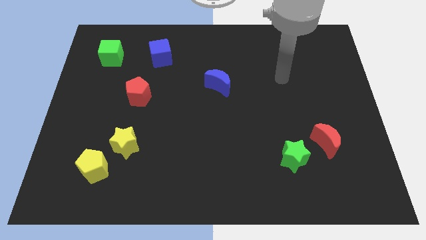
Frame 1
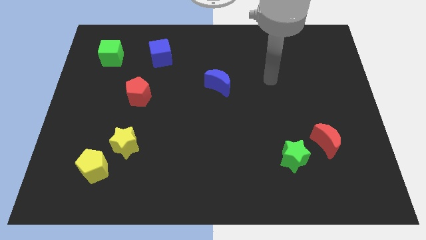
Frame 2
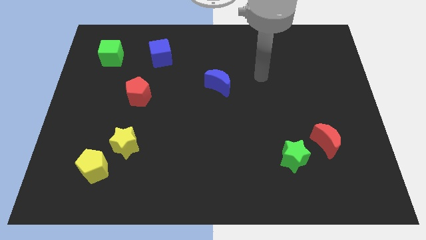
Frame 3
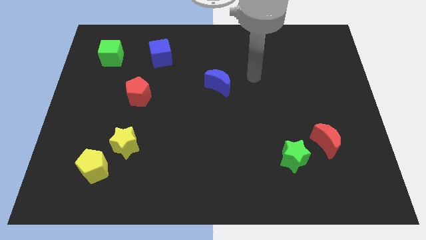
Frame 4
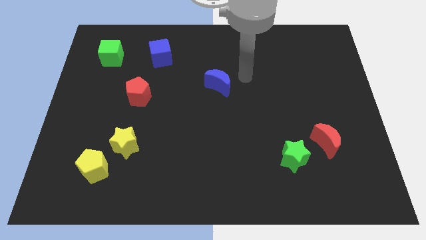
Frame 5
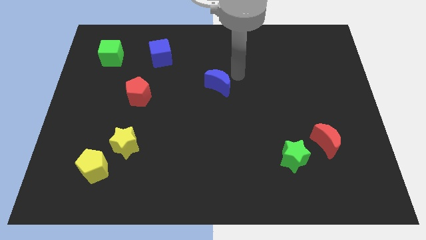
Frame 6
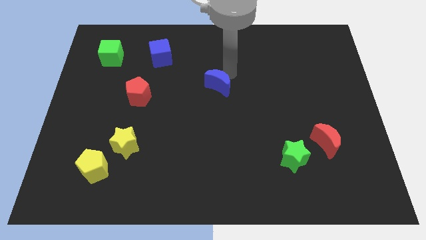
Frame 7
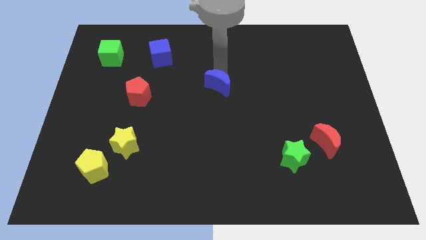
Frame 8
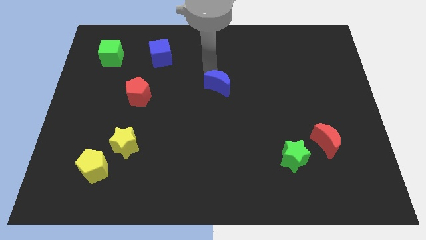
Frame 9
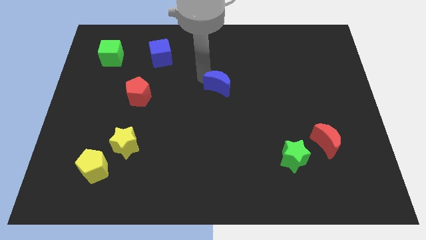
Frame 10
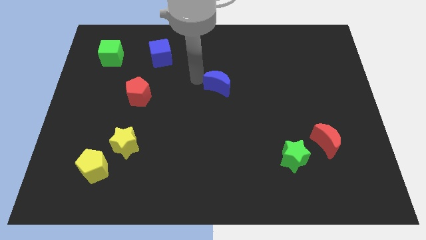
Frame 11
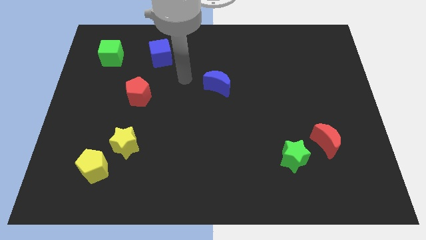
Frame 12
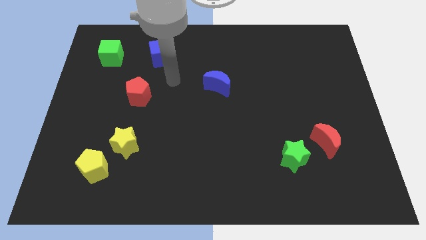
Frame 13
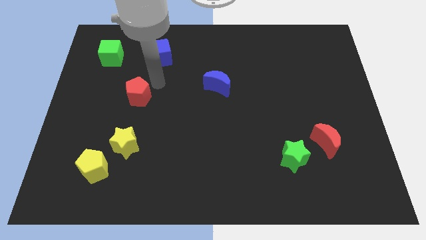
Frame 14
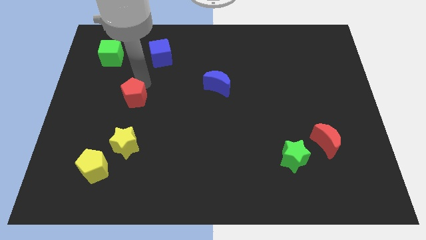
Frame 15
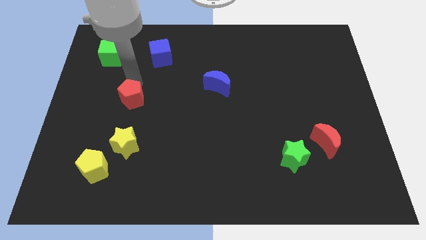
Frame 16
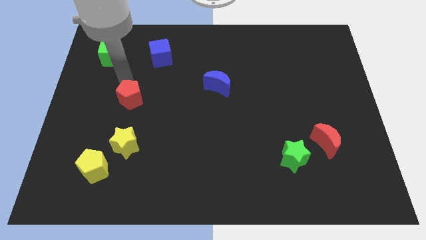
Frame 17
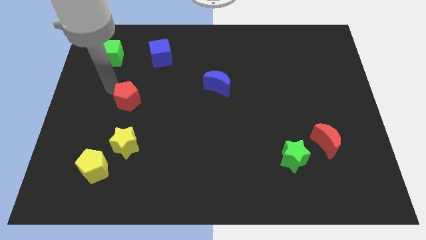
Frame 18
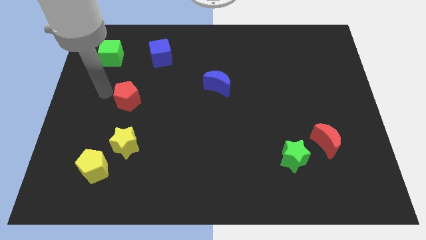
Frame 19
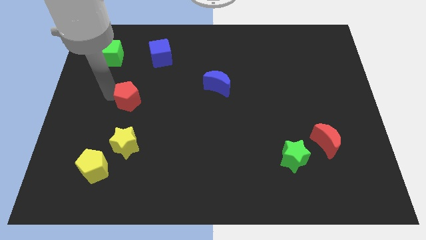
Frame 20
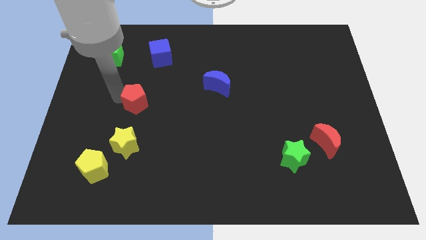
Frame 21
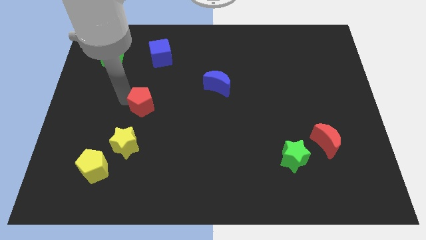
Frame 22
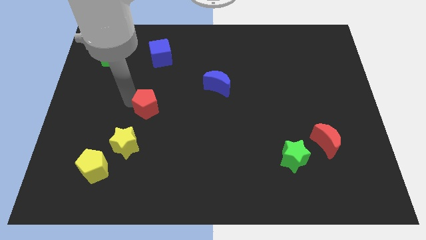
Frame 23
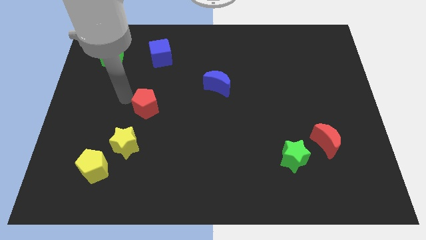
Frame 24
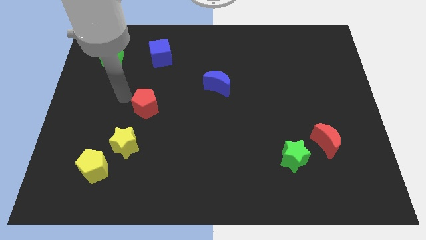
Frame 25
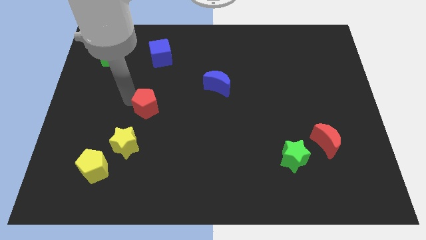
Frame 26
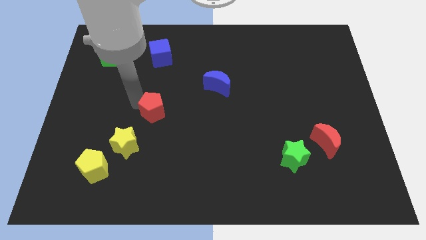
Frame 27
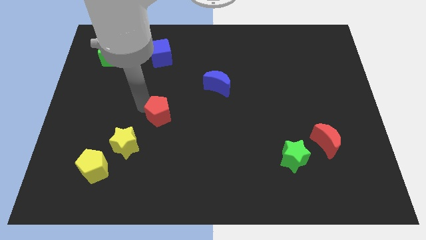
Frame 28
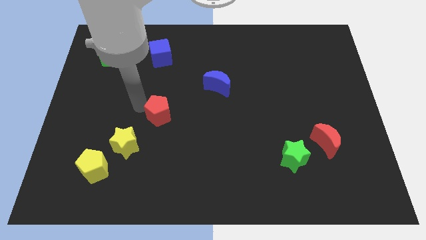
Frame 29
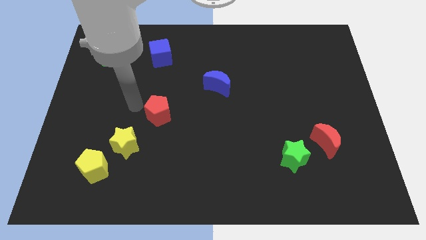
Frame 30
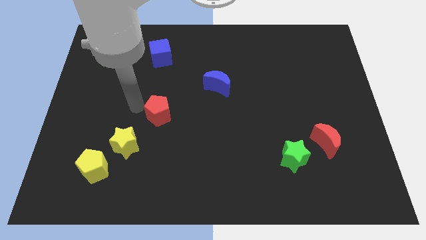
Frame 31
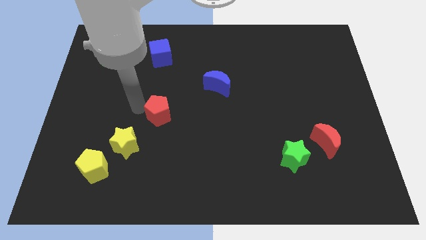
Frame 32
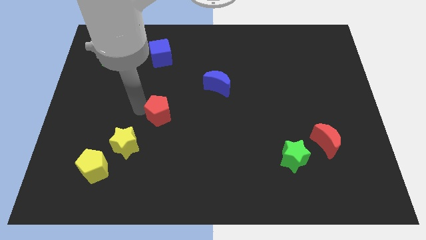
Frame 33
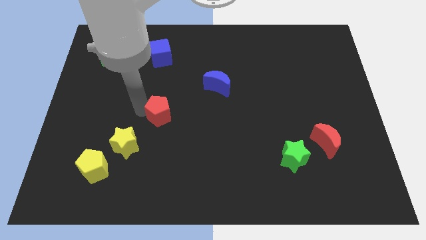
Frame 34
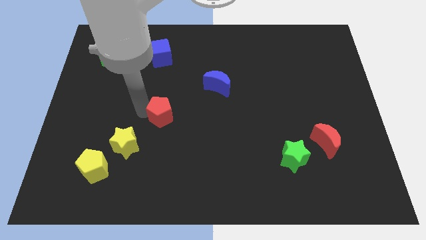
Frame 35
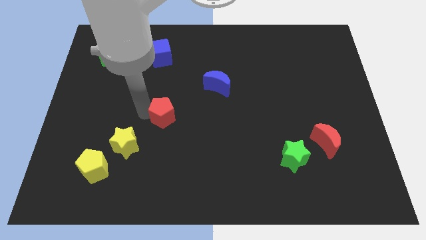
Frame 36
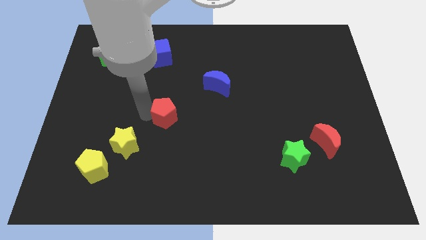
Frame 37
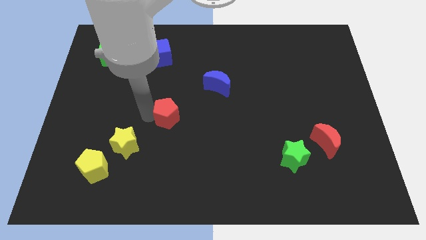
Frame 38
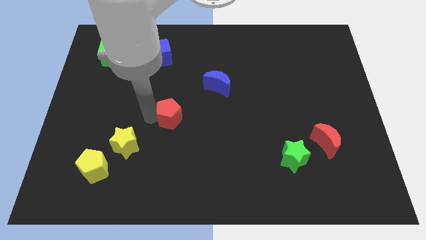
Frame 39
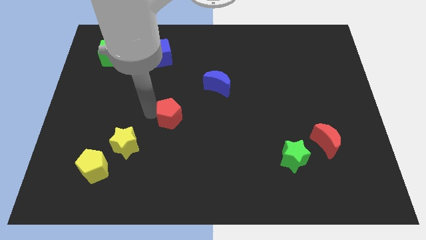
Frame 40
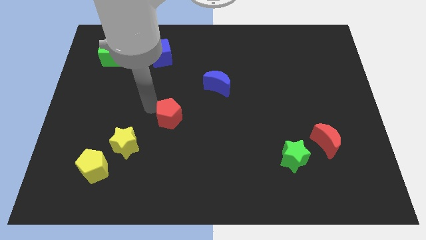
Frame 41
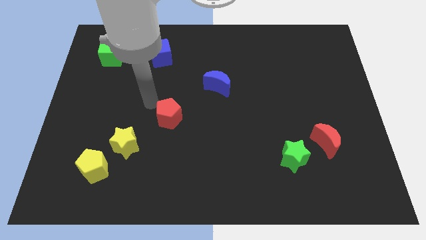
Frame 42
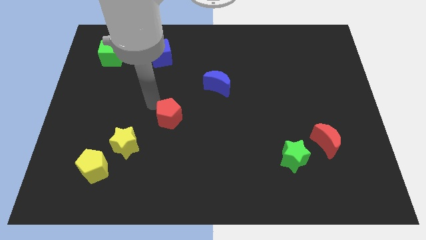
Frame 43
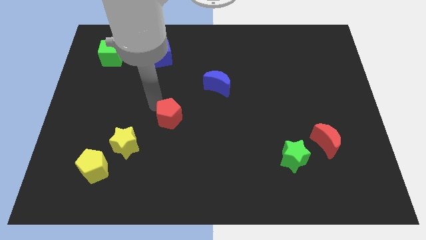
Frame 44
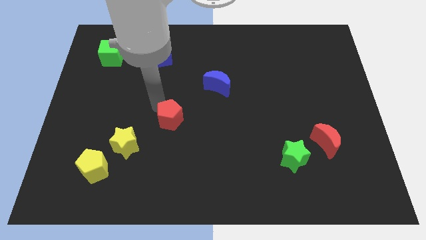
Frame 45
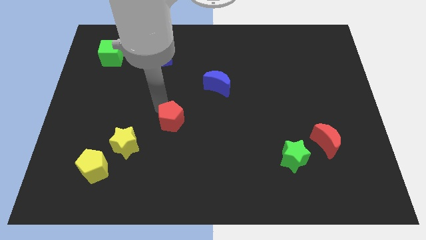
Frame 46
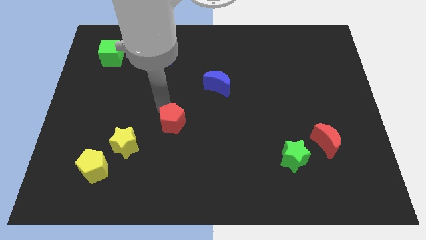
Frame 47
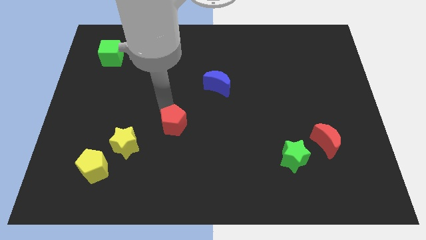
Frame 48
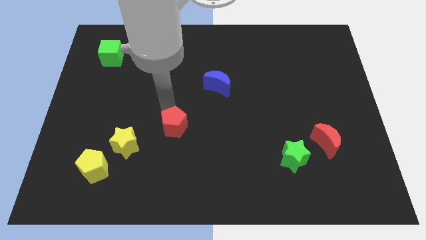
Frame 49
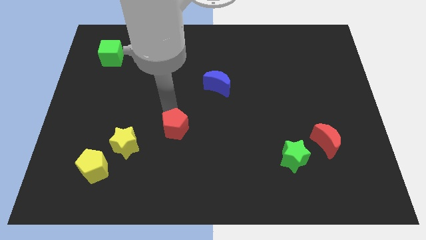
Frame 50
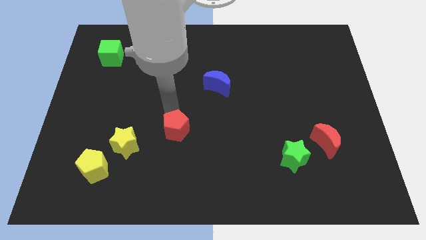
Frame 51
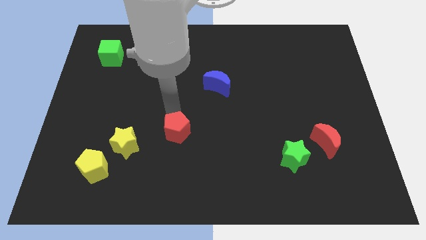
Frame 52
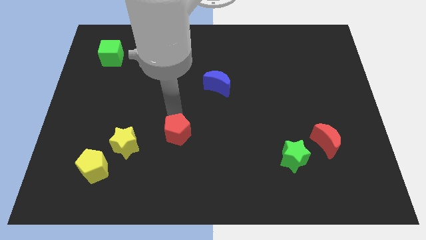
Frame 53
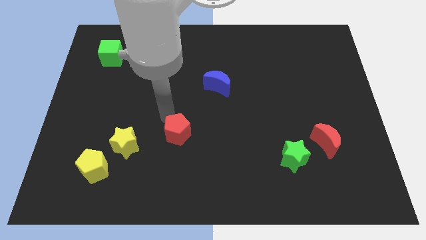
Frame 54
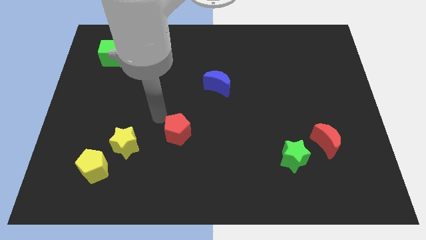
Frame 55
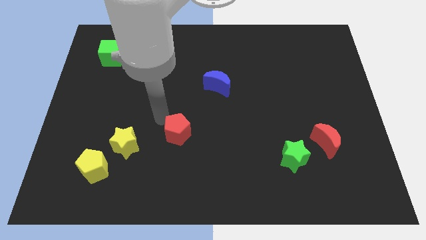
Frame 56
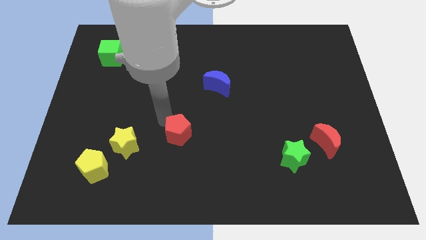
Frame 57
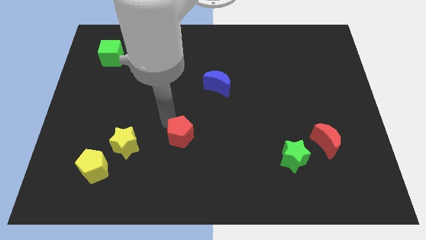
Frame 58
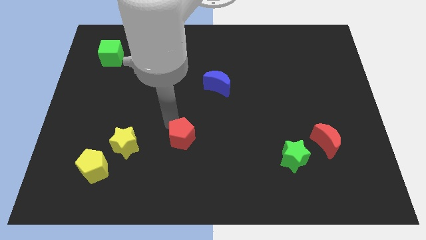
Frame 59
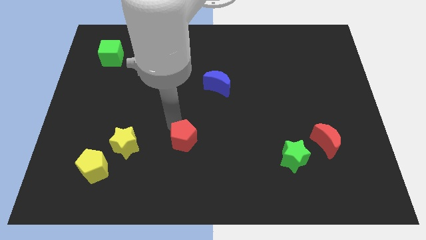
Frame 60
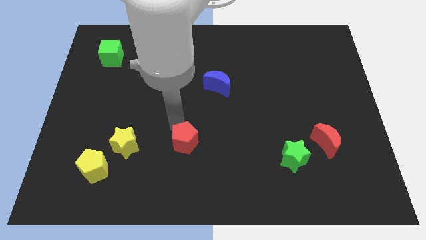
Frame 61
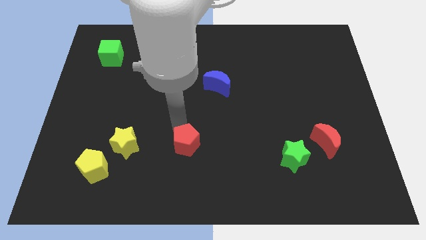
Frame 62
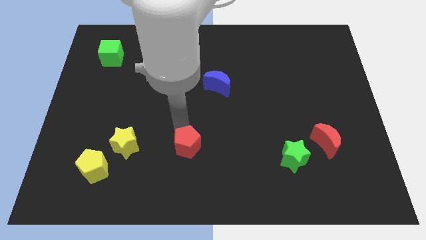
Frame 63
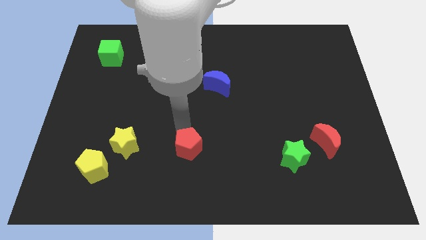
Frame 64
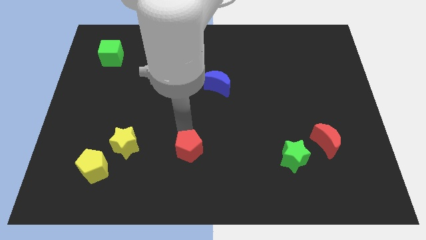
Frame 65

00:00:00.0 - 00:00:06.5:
push the red pentagon down and to the right diagonally

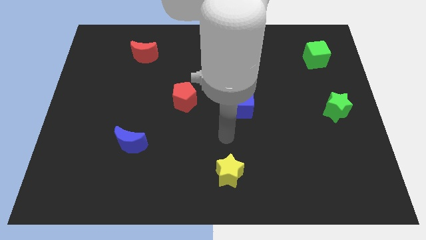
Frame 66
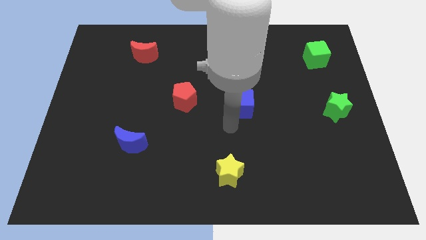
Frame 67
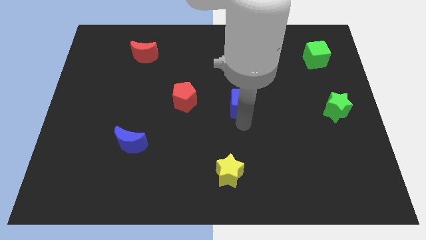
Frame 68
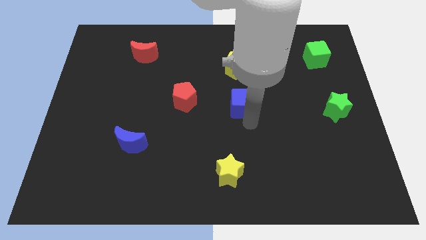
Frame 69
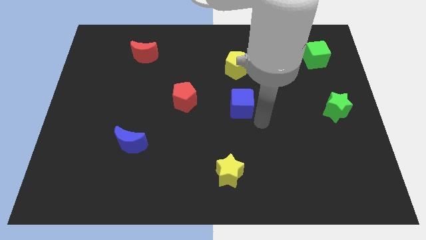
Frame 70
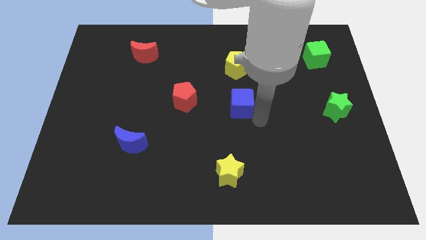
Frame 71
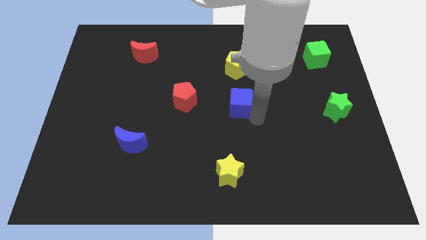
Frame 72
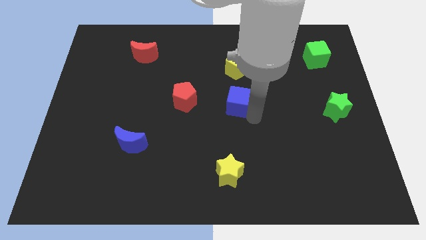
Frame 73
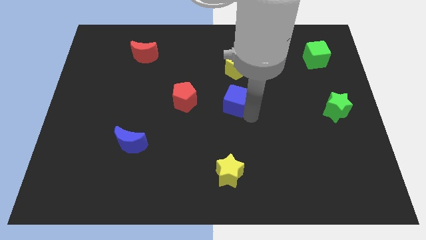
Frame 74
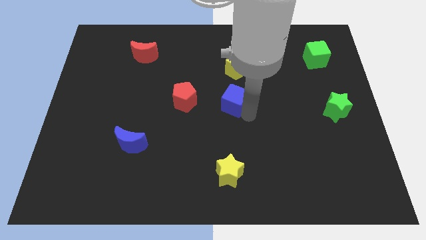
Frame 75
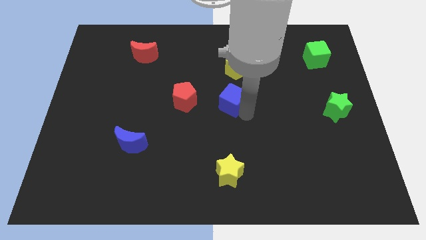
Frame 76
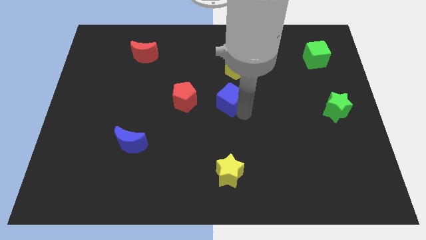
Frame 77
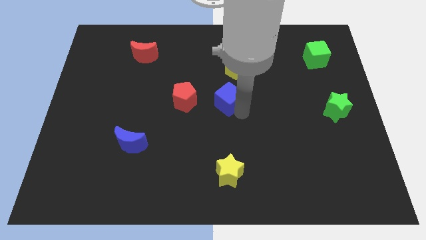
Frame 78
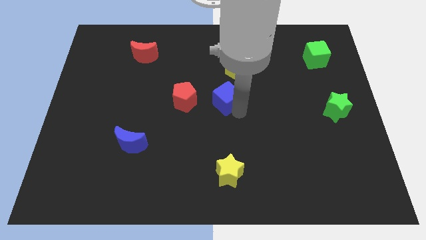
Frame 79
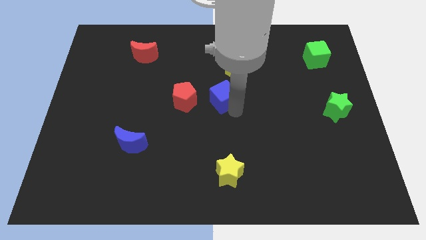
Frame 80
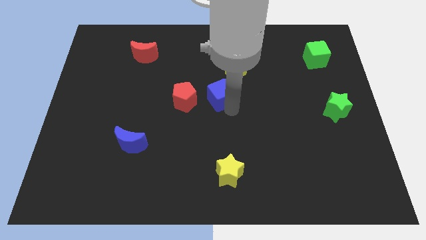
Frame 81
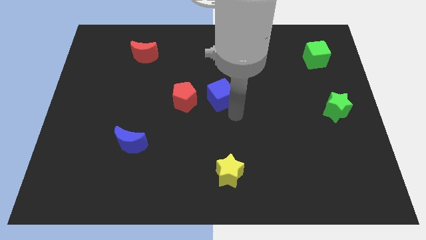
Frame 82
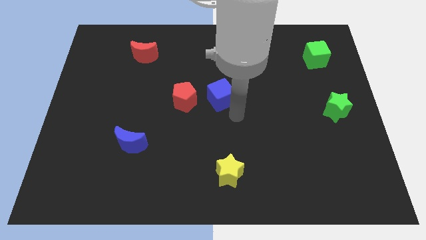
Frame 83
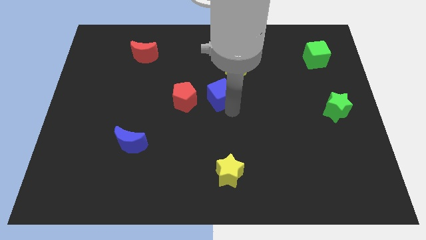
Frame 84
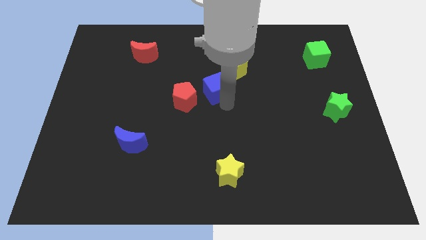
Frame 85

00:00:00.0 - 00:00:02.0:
slightly push the blue cube up and then to the left
